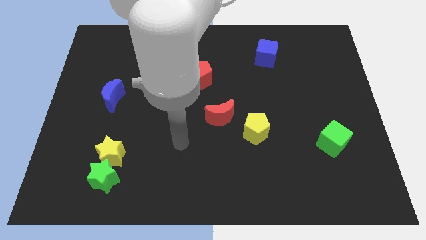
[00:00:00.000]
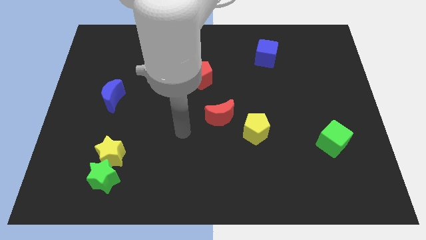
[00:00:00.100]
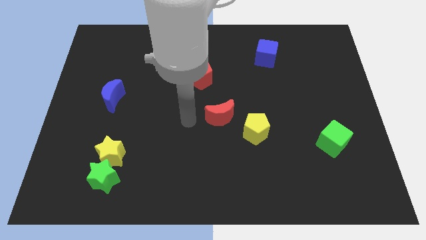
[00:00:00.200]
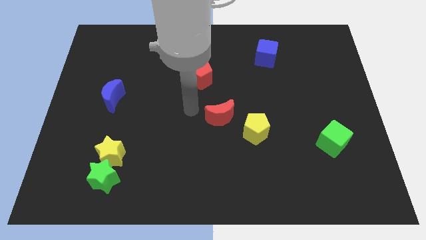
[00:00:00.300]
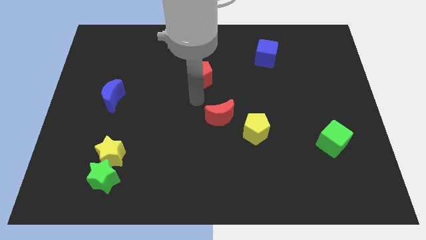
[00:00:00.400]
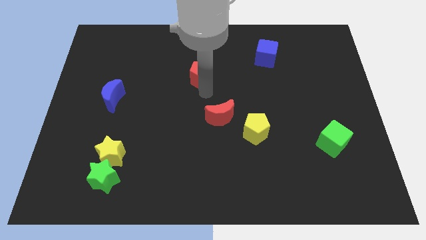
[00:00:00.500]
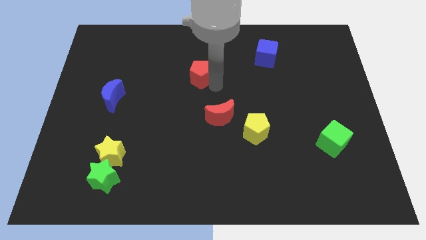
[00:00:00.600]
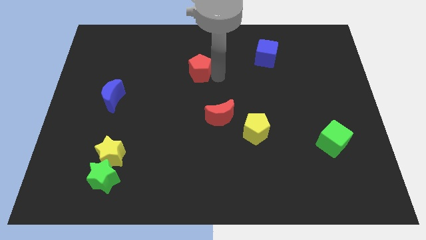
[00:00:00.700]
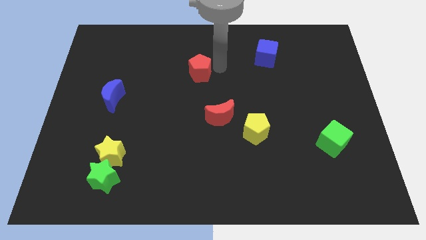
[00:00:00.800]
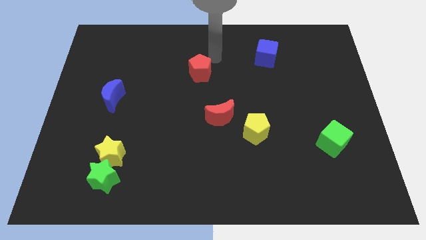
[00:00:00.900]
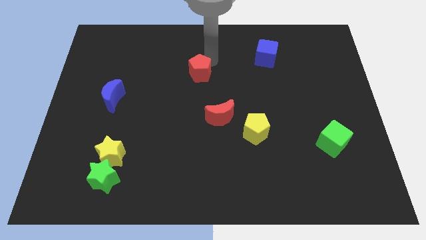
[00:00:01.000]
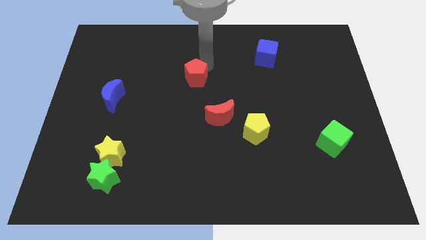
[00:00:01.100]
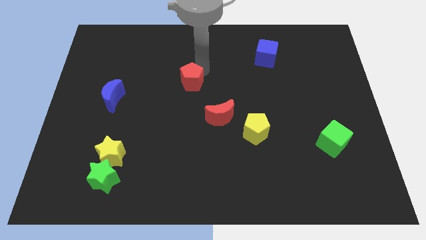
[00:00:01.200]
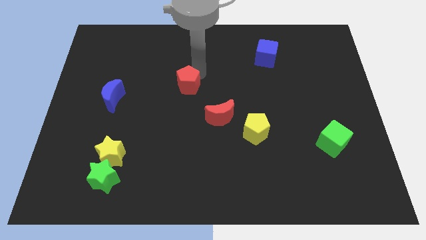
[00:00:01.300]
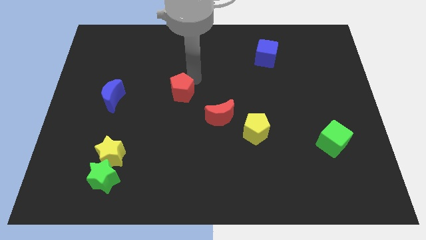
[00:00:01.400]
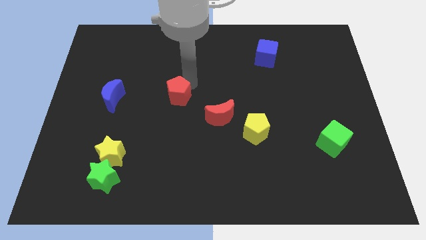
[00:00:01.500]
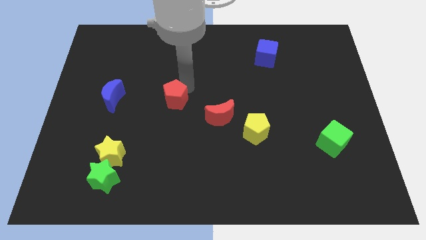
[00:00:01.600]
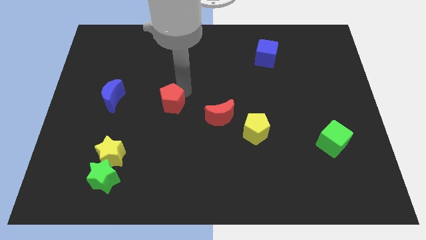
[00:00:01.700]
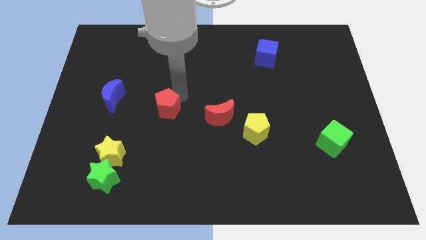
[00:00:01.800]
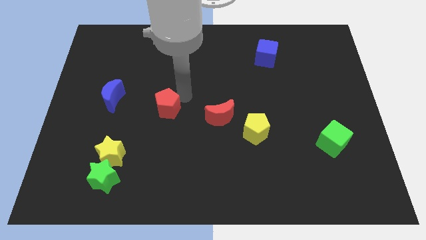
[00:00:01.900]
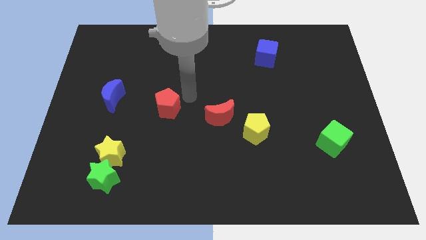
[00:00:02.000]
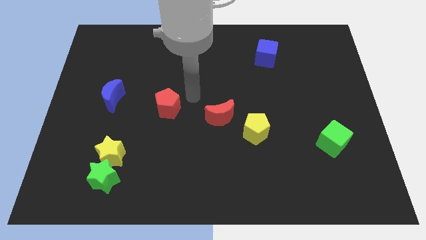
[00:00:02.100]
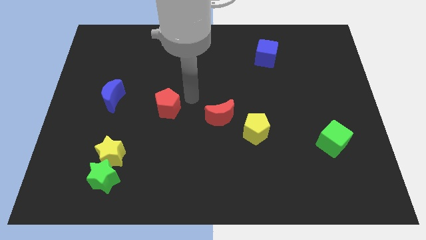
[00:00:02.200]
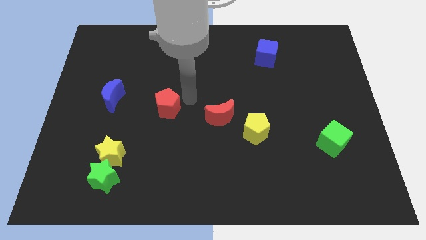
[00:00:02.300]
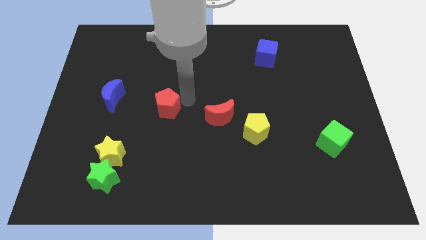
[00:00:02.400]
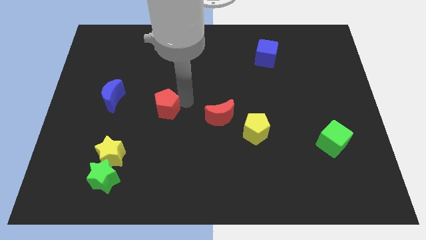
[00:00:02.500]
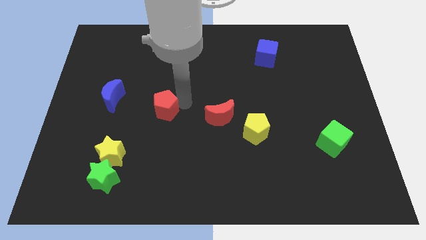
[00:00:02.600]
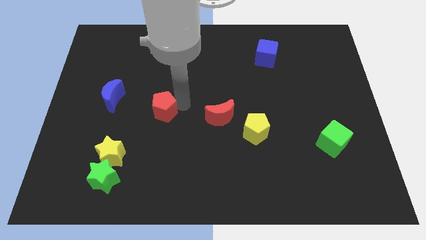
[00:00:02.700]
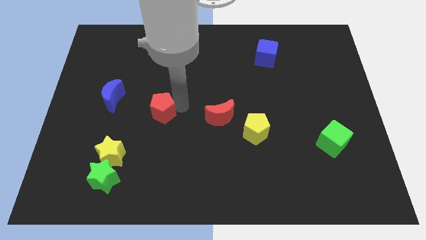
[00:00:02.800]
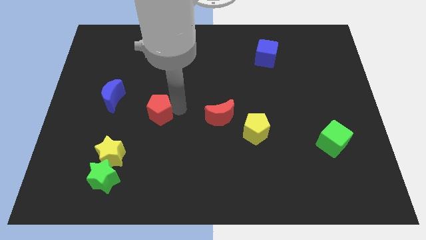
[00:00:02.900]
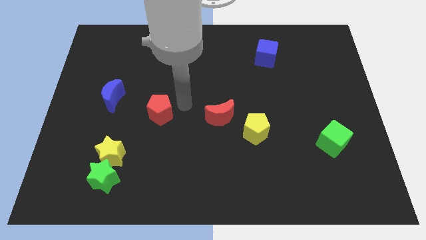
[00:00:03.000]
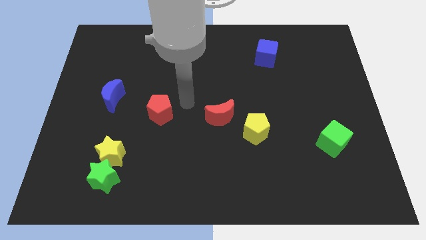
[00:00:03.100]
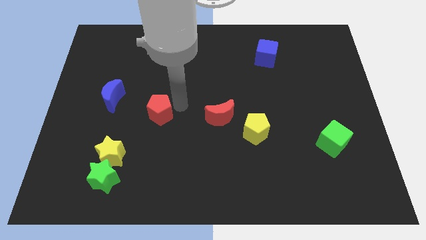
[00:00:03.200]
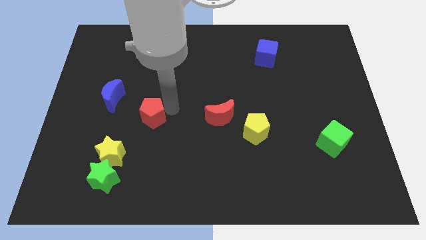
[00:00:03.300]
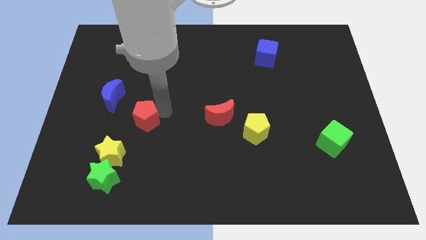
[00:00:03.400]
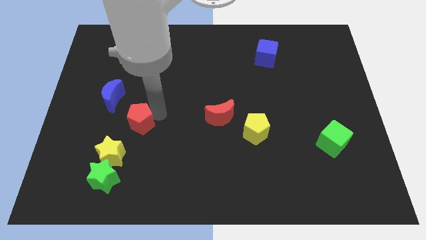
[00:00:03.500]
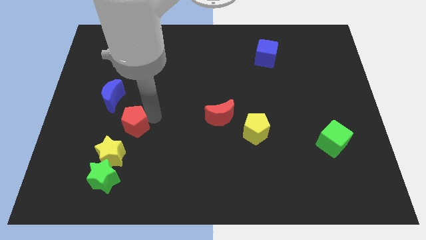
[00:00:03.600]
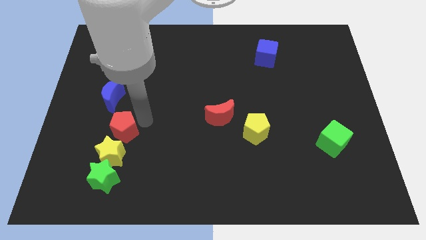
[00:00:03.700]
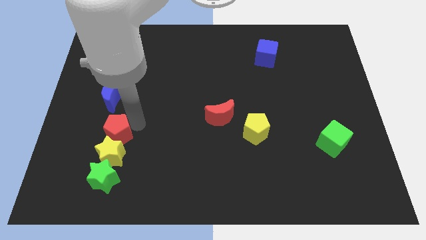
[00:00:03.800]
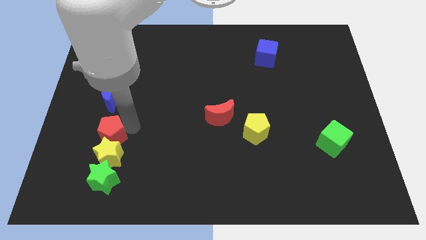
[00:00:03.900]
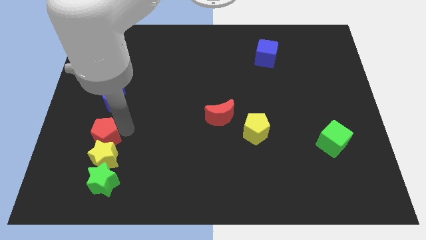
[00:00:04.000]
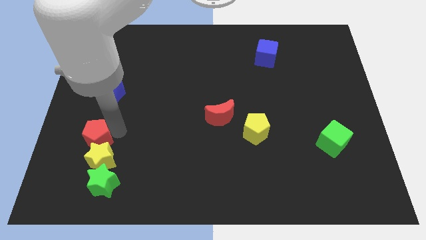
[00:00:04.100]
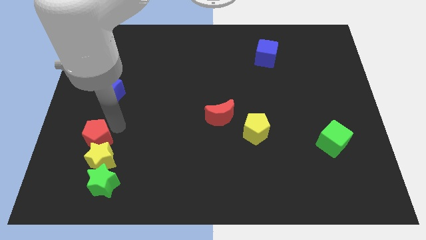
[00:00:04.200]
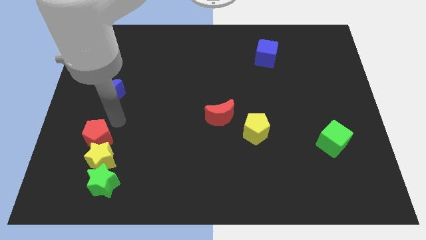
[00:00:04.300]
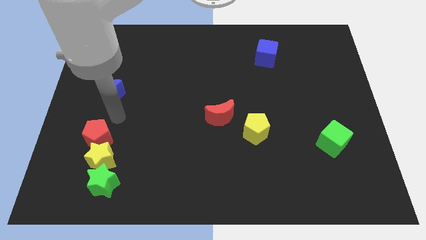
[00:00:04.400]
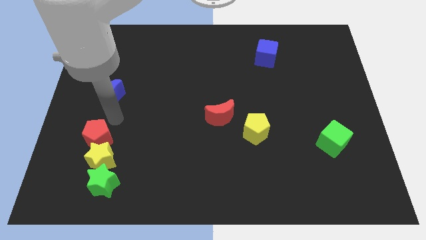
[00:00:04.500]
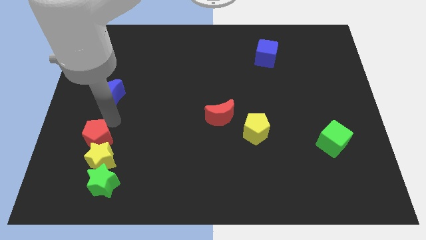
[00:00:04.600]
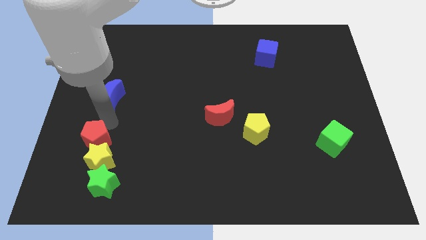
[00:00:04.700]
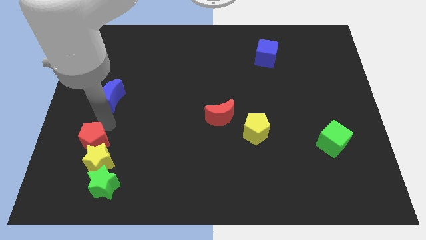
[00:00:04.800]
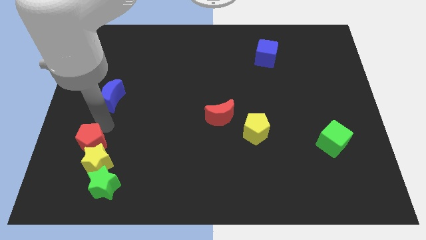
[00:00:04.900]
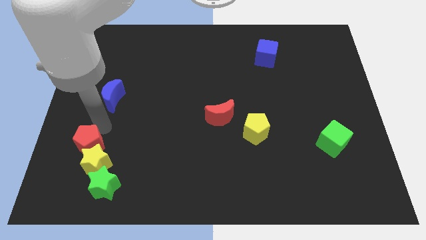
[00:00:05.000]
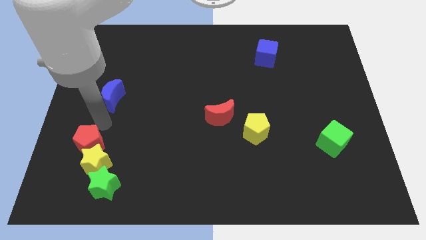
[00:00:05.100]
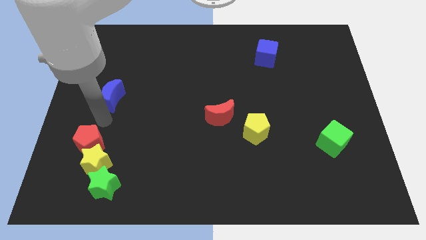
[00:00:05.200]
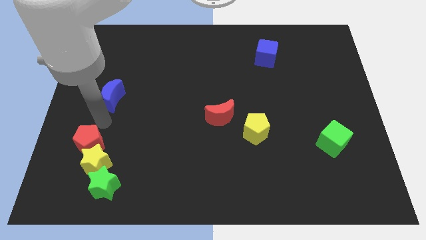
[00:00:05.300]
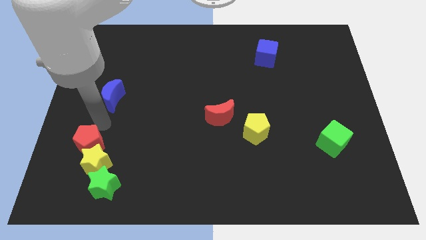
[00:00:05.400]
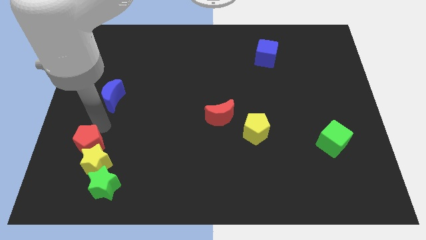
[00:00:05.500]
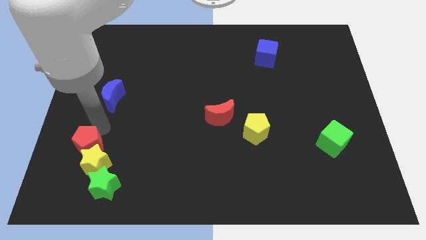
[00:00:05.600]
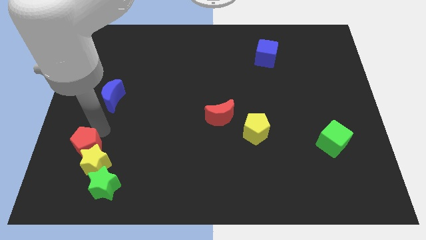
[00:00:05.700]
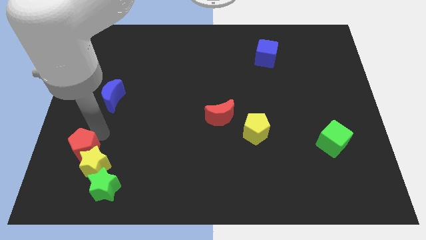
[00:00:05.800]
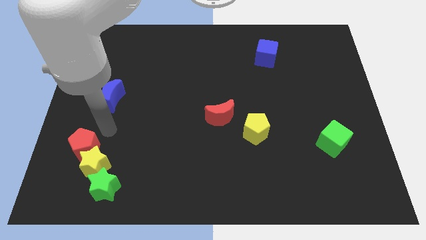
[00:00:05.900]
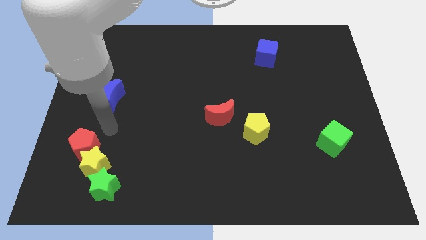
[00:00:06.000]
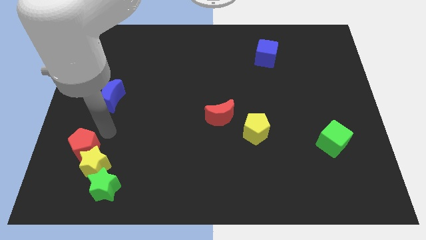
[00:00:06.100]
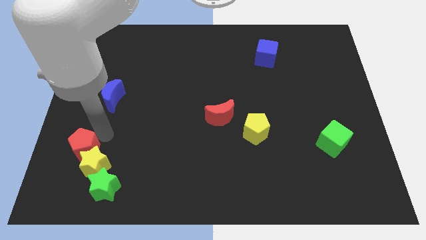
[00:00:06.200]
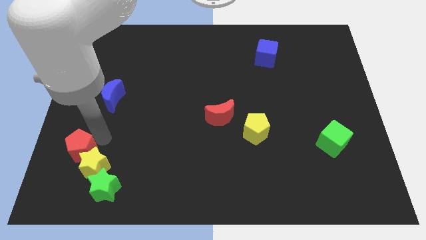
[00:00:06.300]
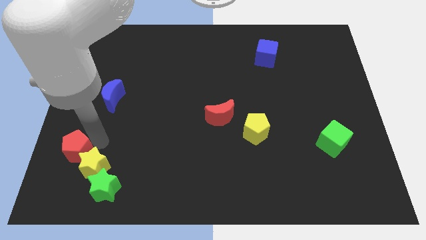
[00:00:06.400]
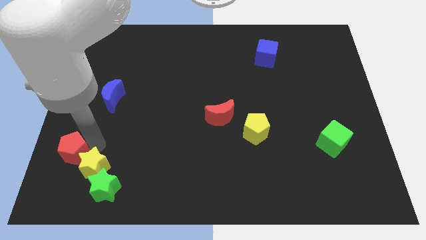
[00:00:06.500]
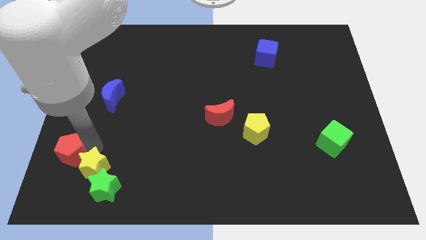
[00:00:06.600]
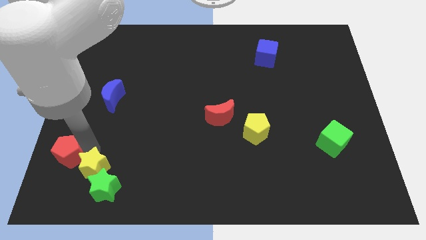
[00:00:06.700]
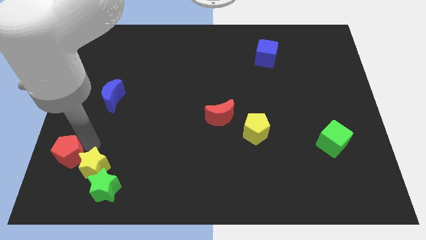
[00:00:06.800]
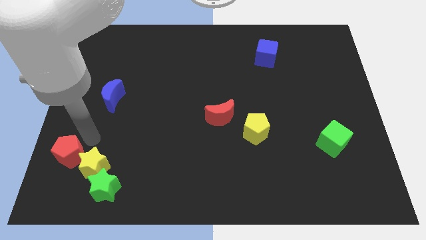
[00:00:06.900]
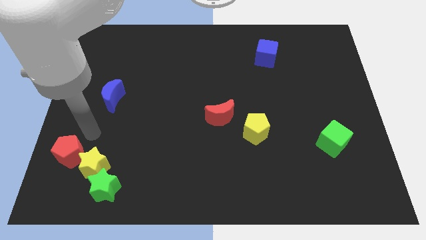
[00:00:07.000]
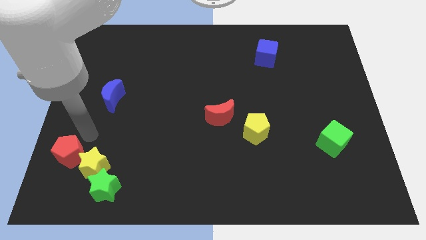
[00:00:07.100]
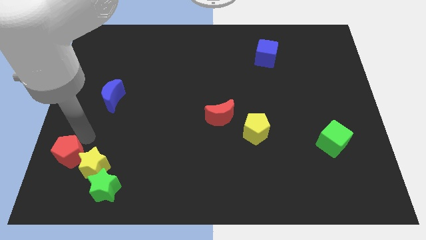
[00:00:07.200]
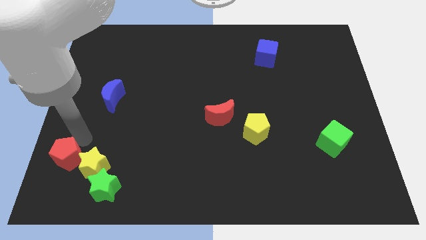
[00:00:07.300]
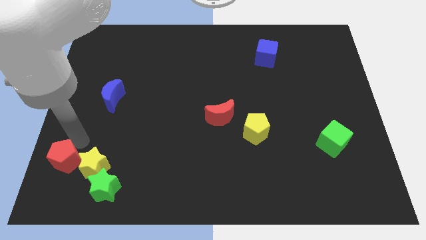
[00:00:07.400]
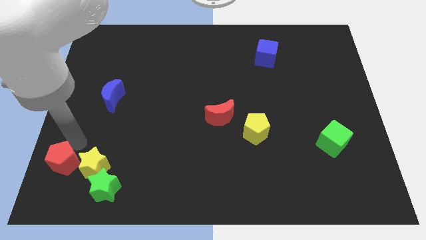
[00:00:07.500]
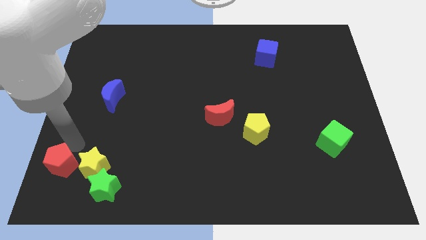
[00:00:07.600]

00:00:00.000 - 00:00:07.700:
move the red pentagon to the bottom left of the board
